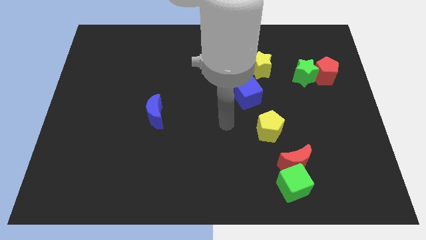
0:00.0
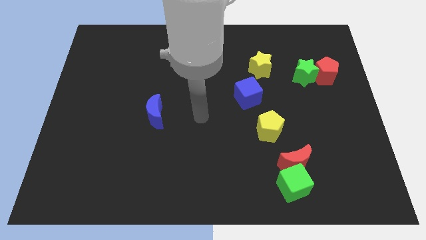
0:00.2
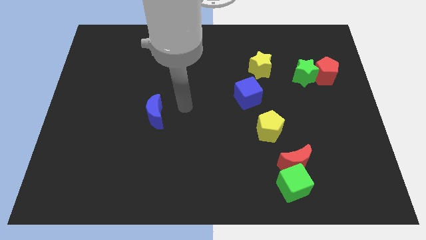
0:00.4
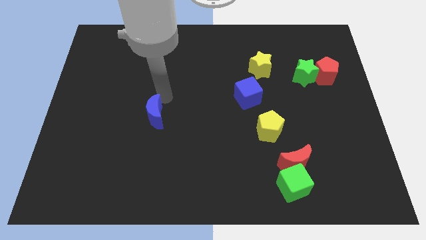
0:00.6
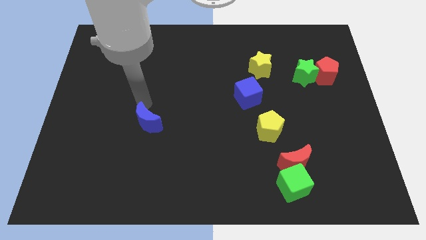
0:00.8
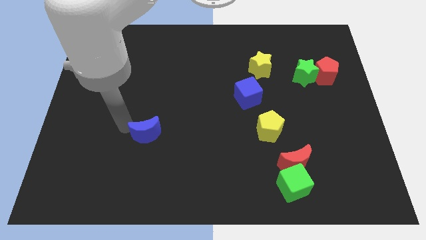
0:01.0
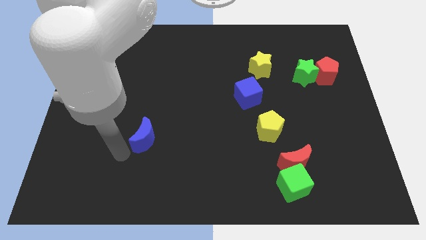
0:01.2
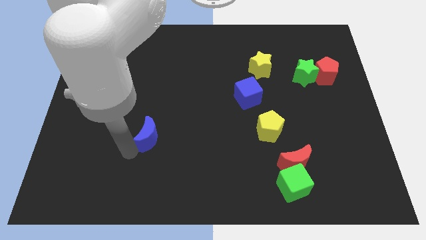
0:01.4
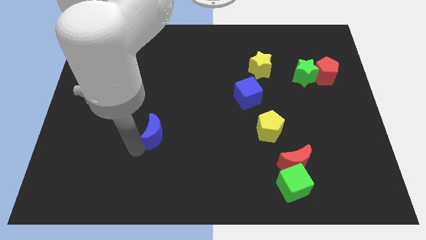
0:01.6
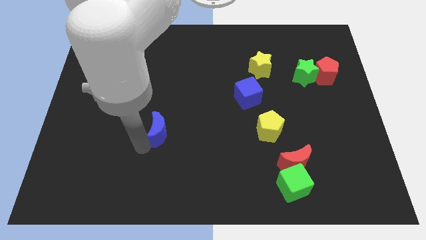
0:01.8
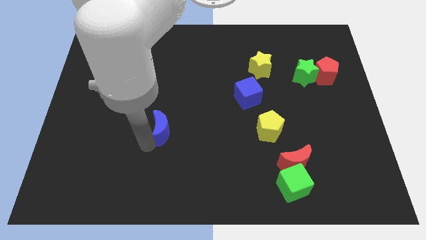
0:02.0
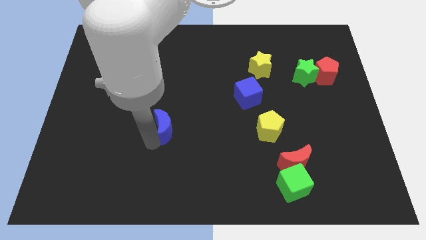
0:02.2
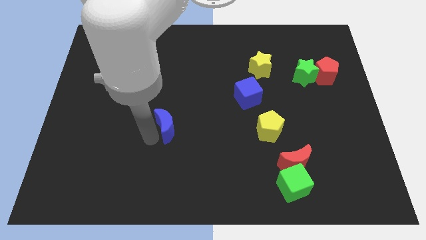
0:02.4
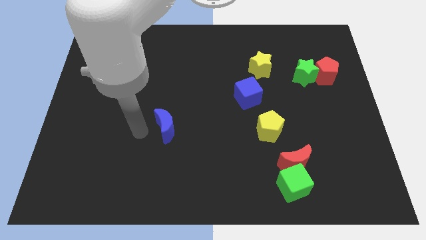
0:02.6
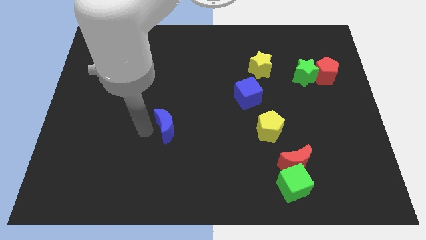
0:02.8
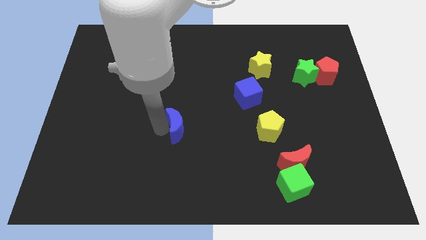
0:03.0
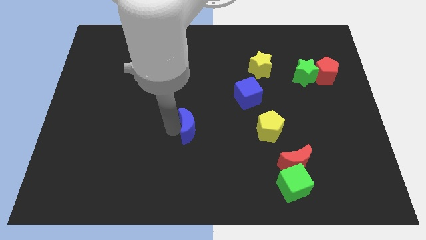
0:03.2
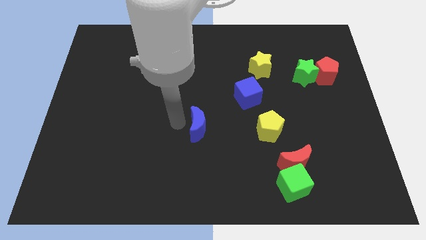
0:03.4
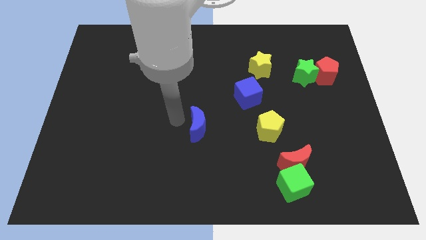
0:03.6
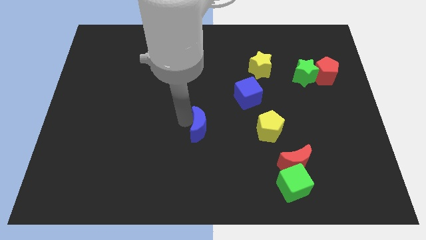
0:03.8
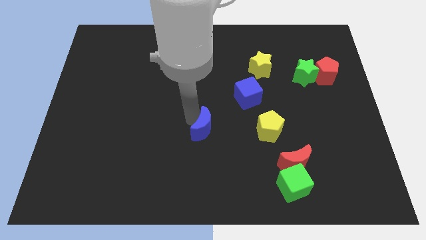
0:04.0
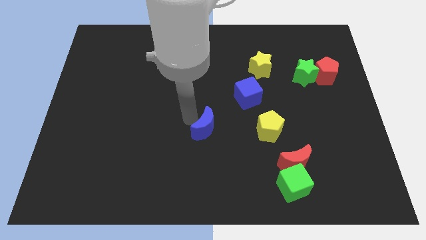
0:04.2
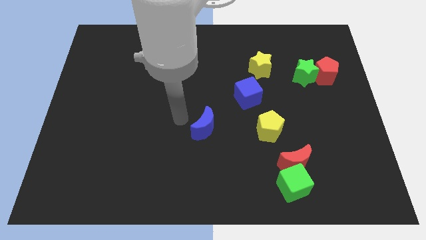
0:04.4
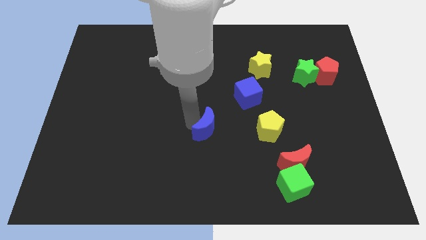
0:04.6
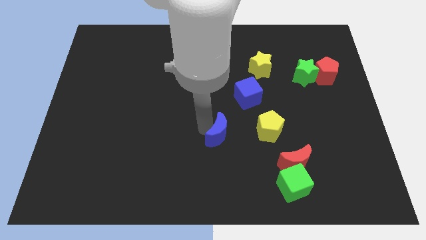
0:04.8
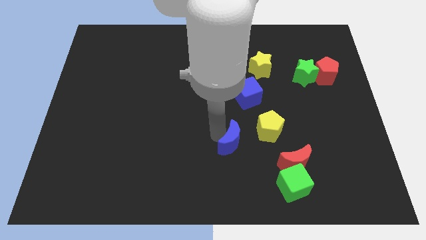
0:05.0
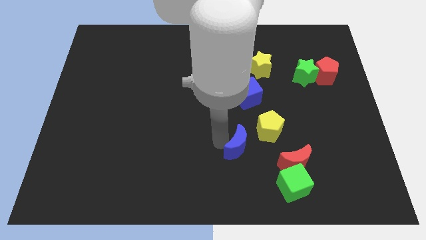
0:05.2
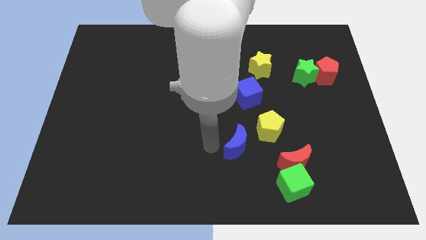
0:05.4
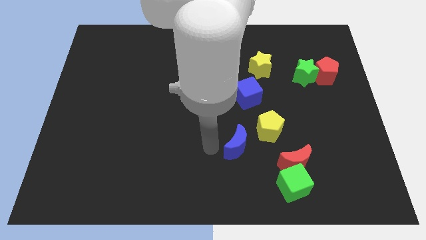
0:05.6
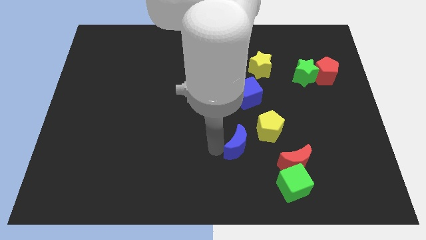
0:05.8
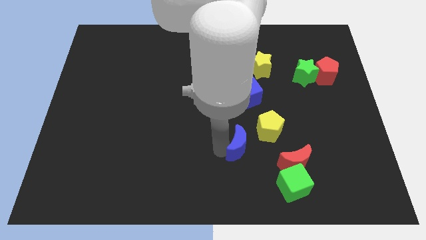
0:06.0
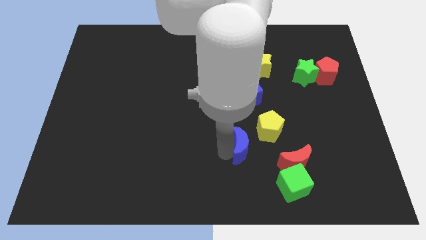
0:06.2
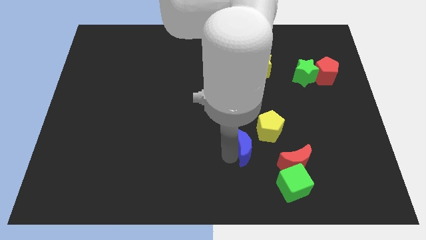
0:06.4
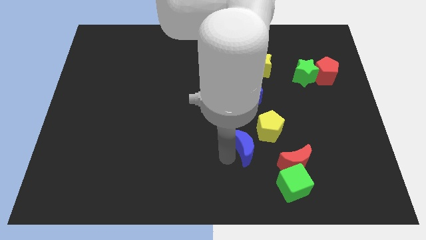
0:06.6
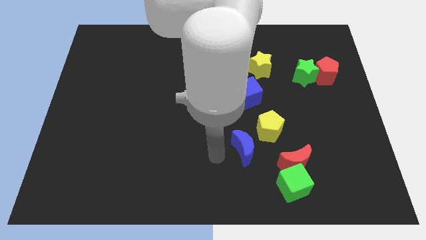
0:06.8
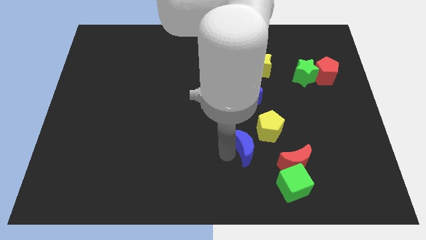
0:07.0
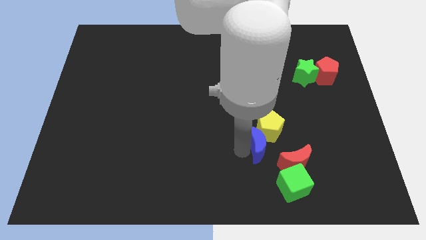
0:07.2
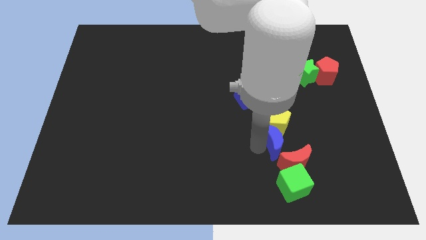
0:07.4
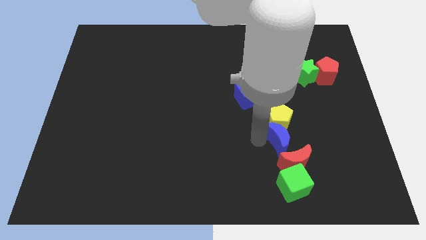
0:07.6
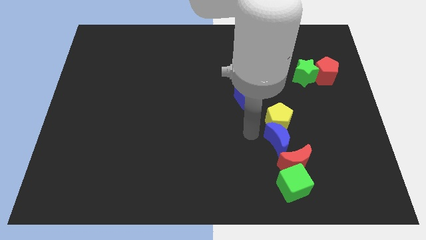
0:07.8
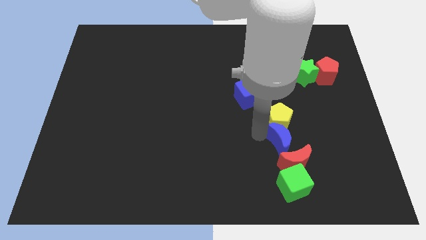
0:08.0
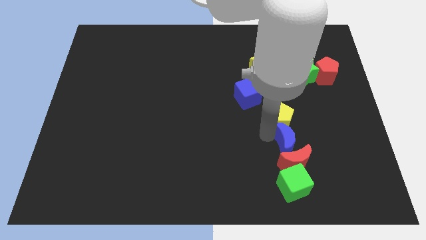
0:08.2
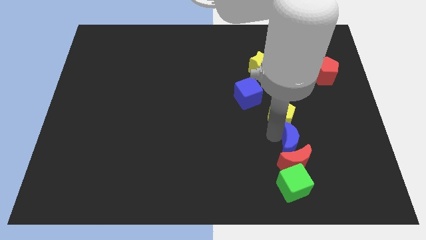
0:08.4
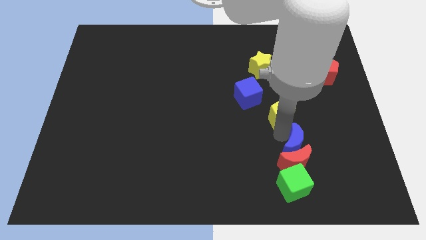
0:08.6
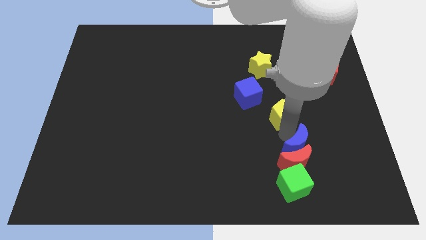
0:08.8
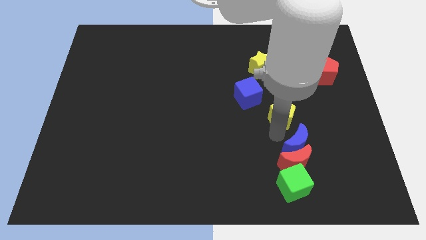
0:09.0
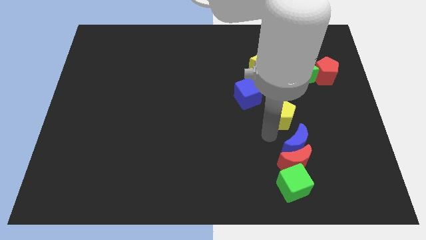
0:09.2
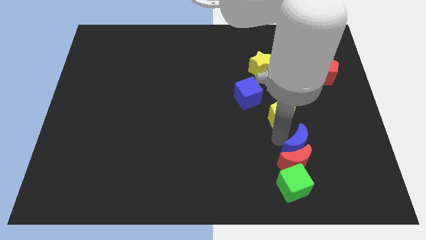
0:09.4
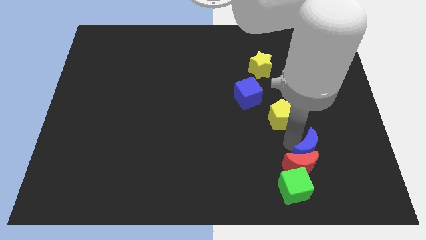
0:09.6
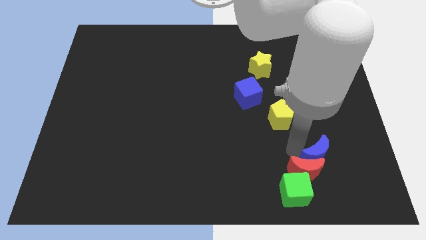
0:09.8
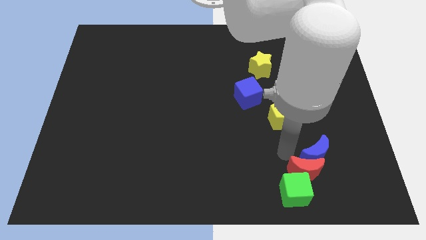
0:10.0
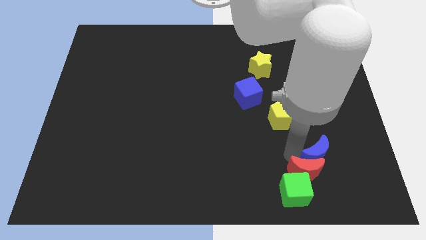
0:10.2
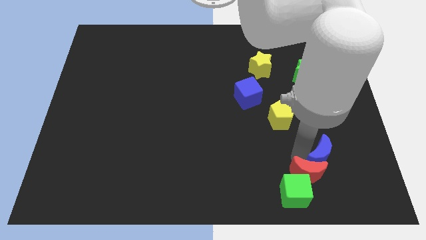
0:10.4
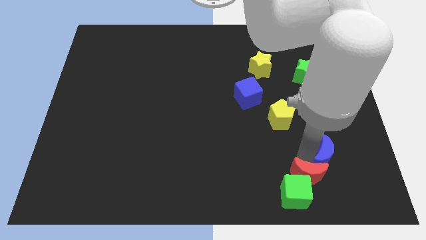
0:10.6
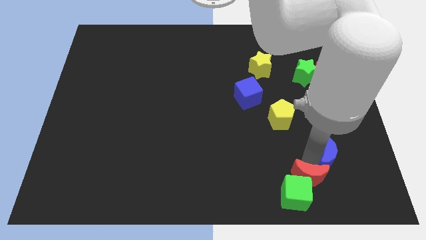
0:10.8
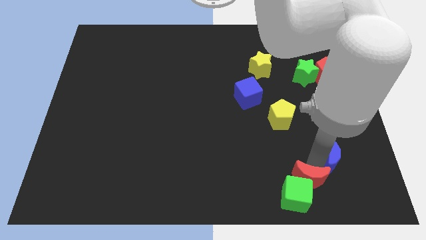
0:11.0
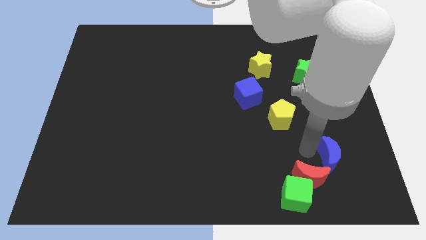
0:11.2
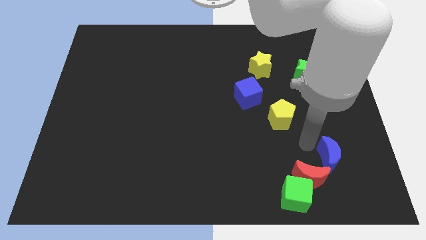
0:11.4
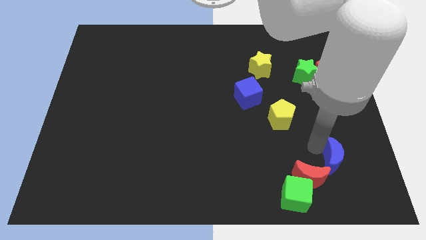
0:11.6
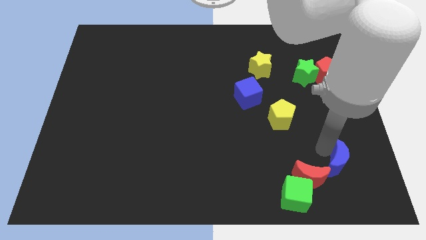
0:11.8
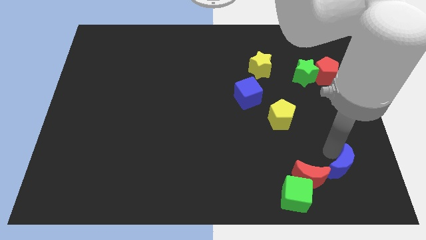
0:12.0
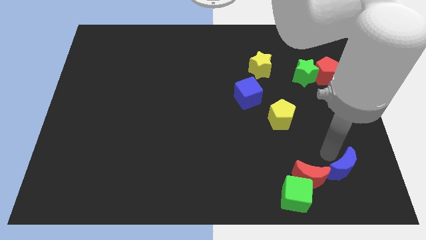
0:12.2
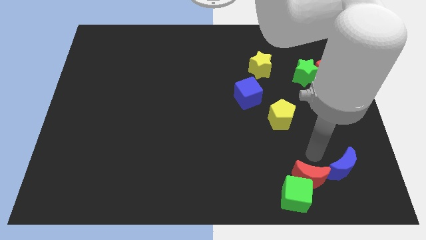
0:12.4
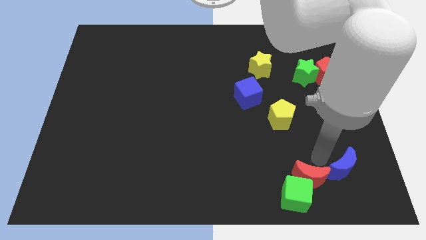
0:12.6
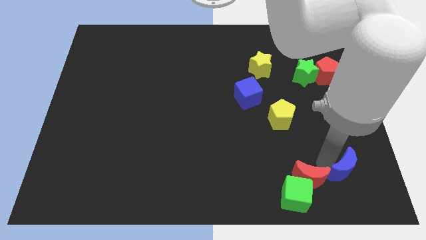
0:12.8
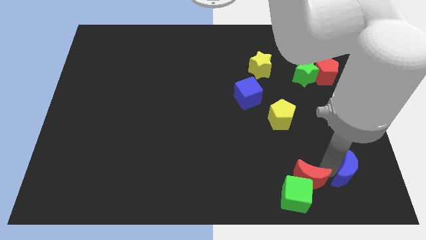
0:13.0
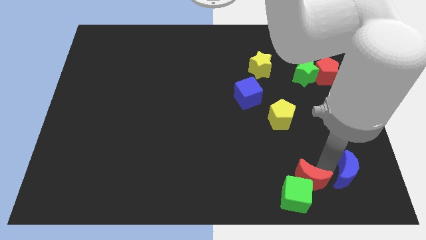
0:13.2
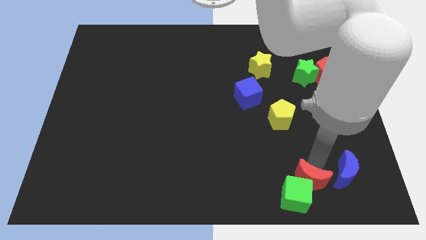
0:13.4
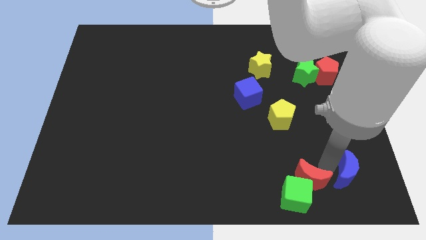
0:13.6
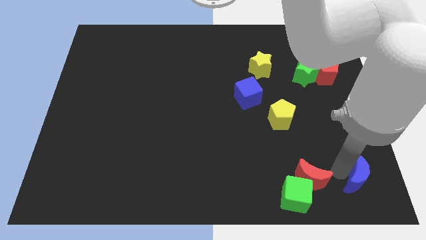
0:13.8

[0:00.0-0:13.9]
push the blue moon to the bottom right of the board

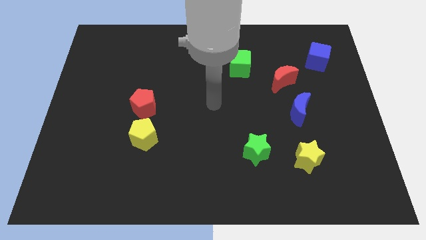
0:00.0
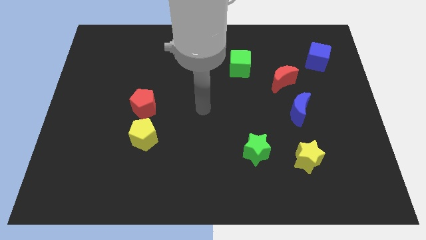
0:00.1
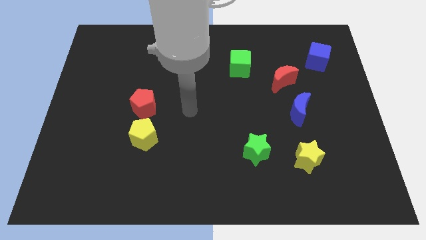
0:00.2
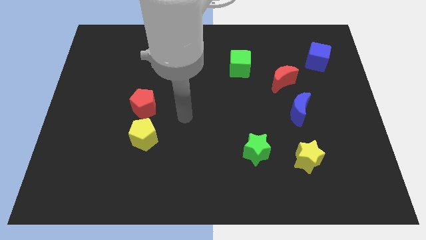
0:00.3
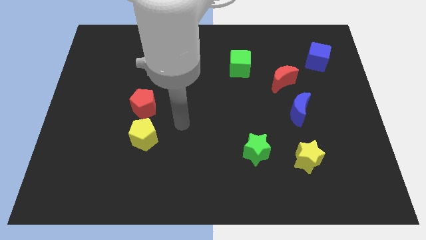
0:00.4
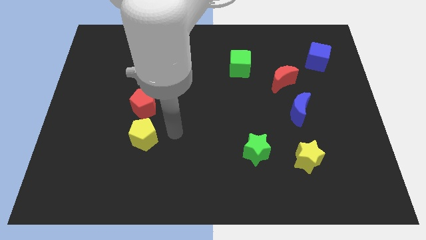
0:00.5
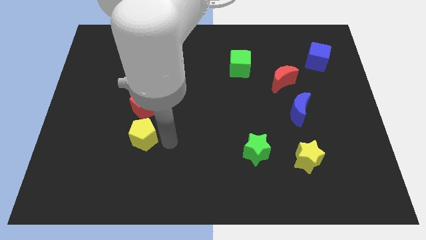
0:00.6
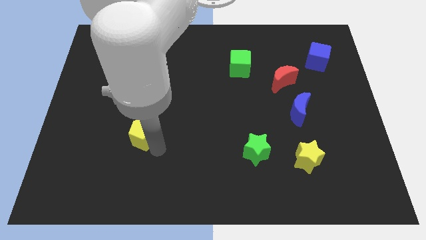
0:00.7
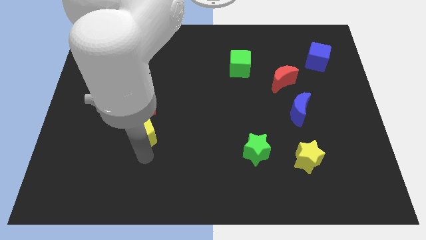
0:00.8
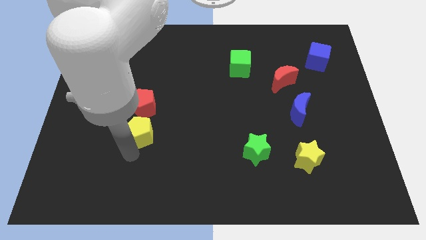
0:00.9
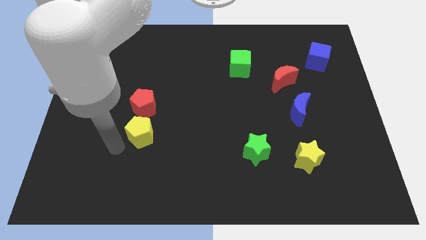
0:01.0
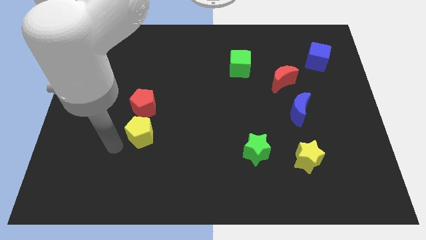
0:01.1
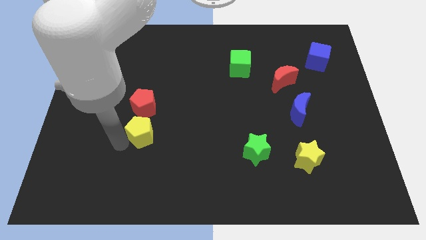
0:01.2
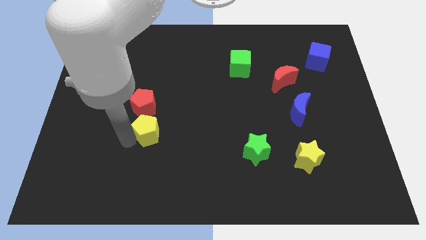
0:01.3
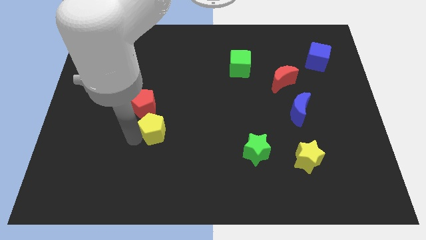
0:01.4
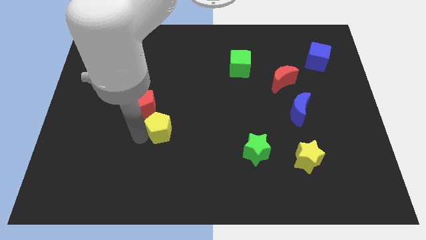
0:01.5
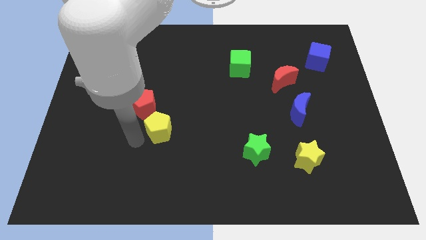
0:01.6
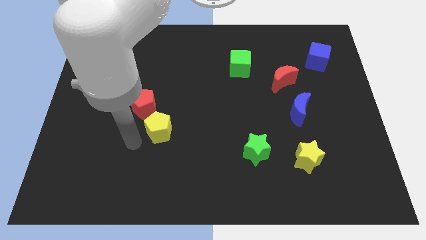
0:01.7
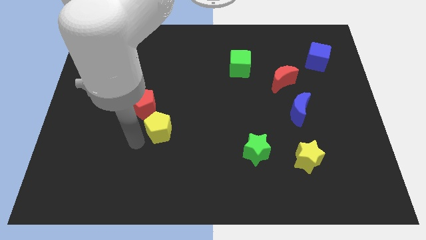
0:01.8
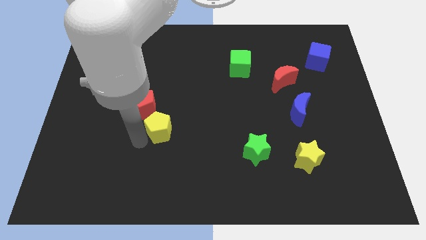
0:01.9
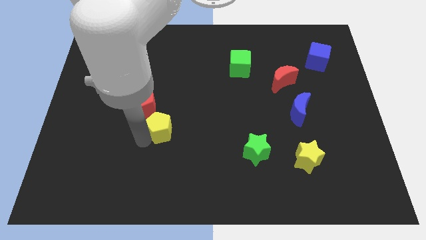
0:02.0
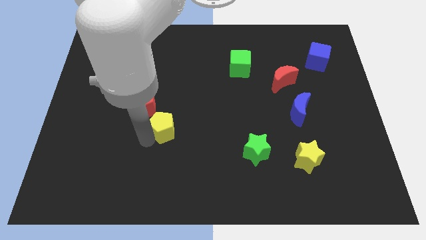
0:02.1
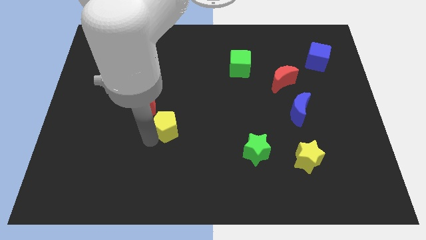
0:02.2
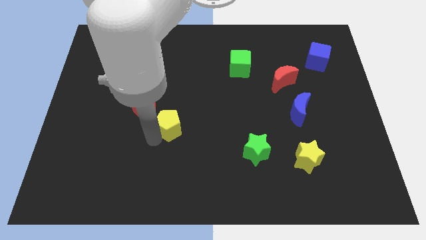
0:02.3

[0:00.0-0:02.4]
push the yellow pentagon to the middle
